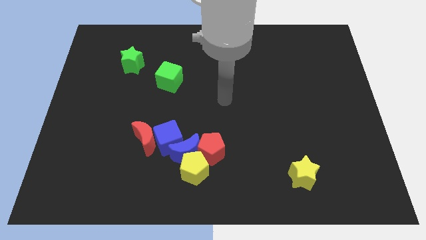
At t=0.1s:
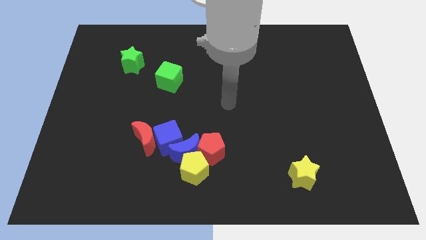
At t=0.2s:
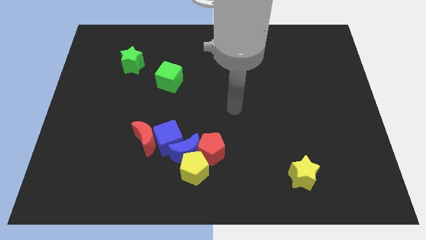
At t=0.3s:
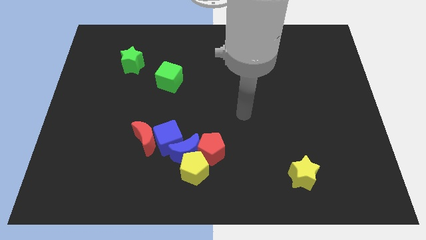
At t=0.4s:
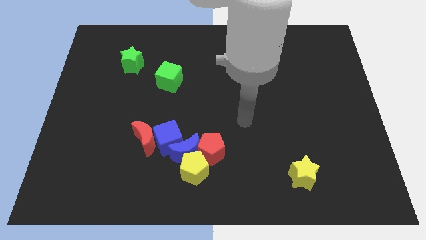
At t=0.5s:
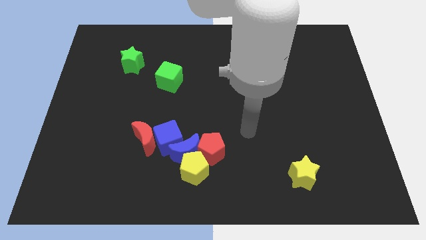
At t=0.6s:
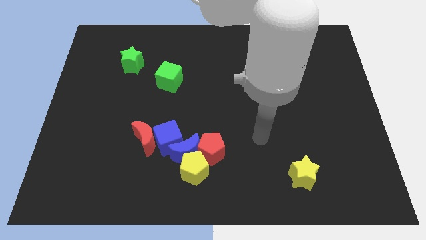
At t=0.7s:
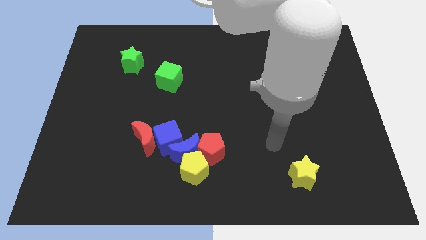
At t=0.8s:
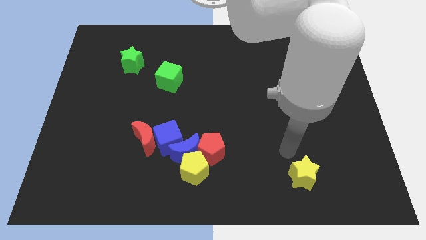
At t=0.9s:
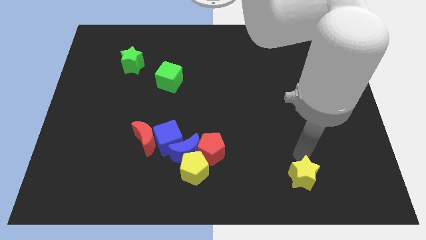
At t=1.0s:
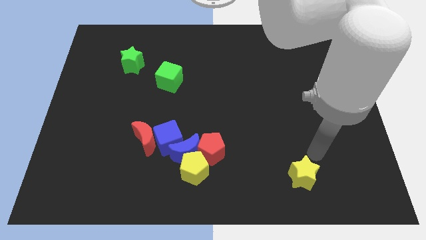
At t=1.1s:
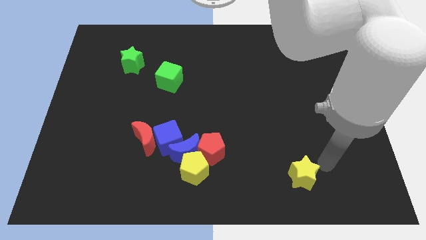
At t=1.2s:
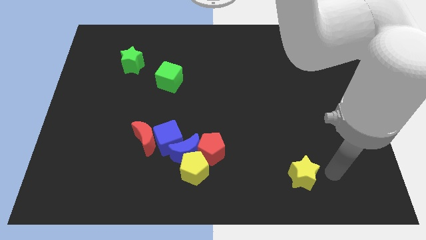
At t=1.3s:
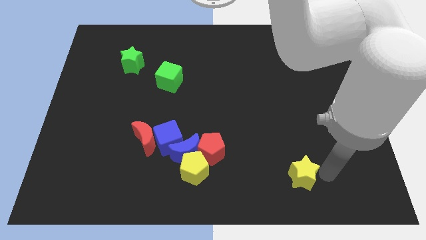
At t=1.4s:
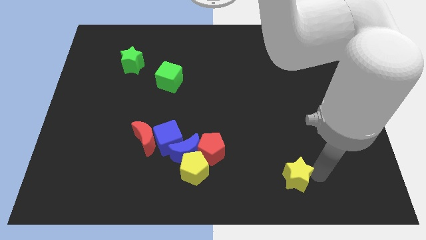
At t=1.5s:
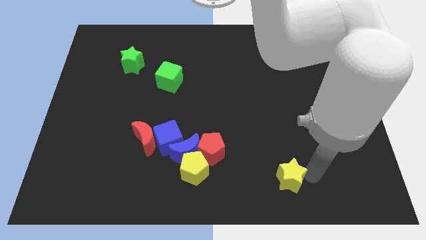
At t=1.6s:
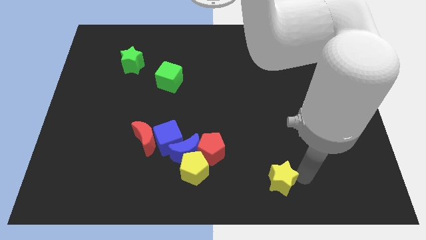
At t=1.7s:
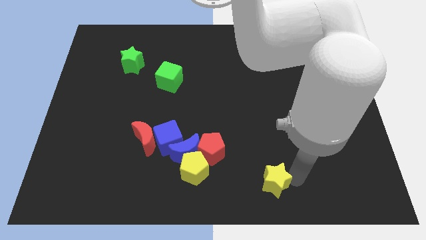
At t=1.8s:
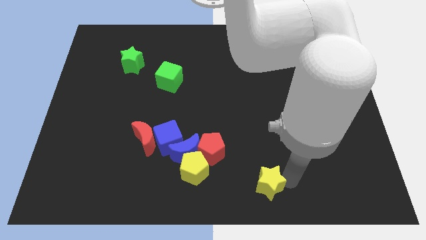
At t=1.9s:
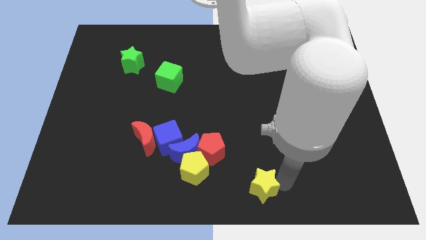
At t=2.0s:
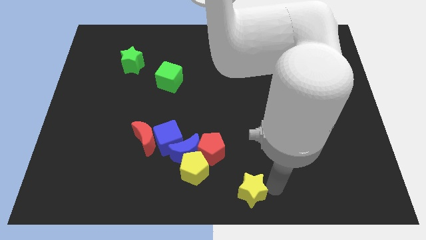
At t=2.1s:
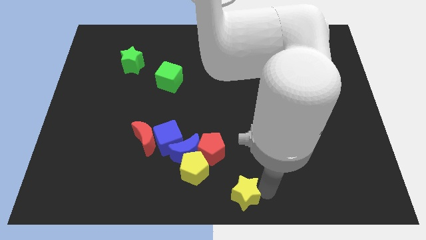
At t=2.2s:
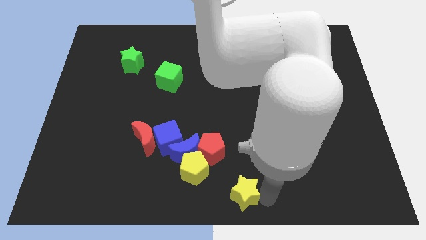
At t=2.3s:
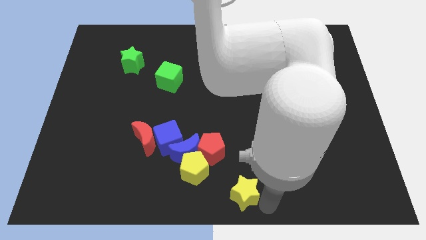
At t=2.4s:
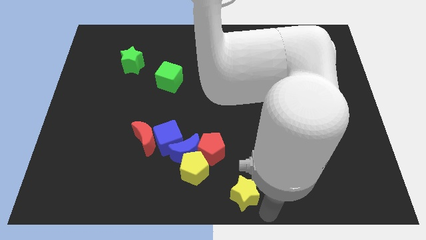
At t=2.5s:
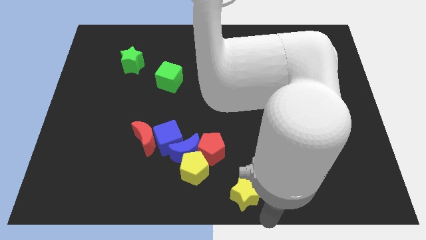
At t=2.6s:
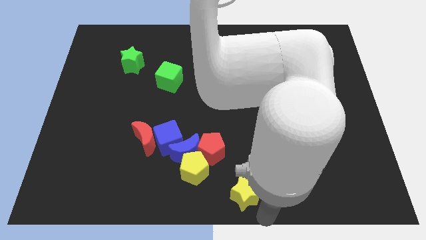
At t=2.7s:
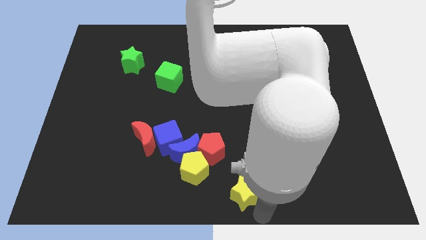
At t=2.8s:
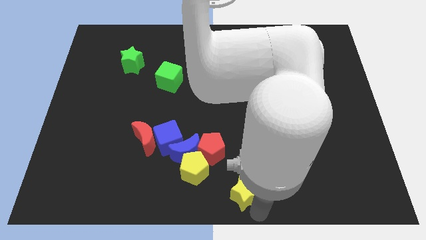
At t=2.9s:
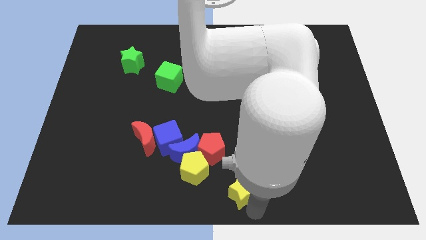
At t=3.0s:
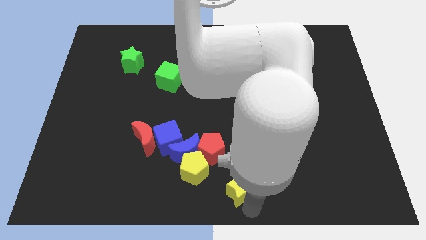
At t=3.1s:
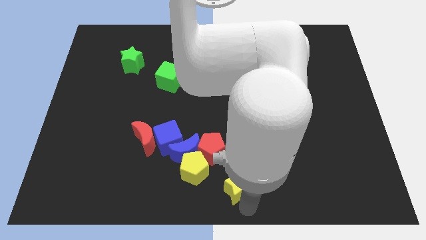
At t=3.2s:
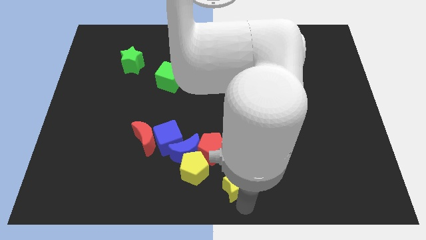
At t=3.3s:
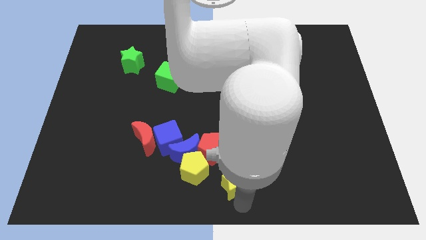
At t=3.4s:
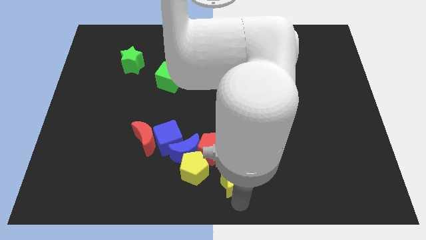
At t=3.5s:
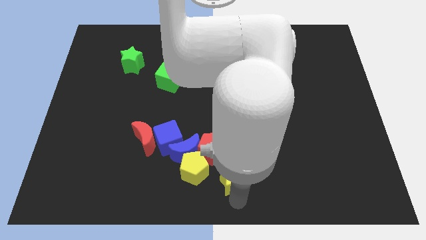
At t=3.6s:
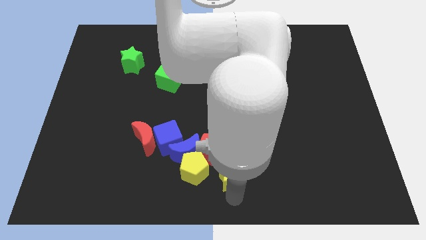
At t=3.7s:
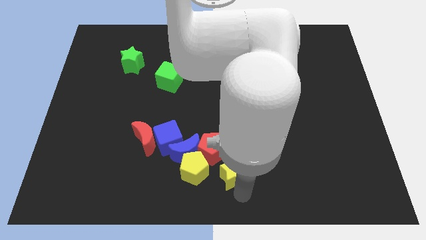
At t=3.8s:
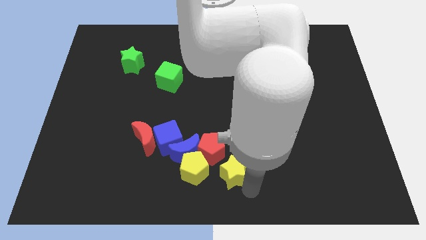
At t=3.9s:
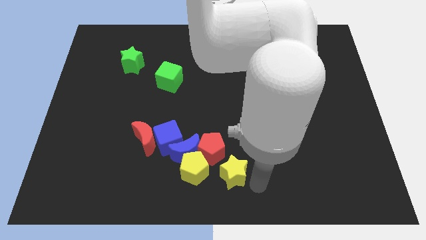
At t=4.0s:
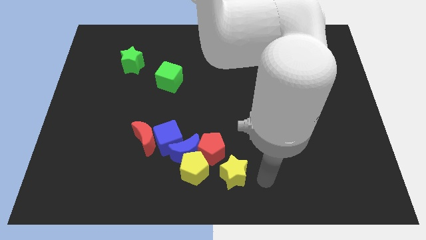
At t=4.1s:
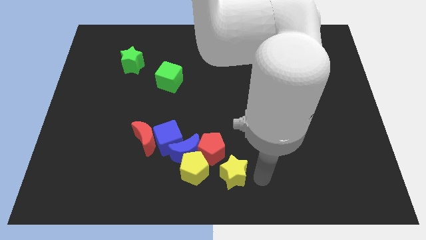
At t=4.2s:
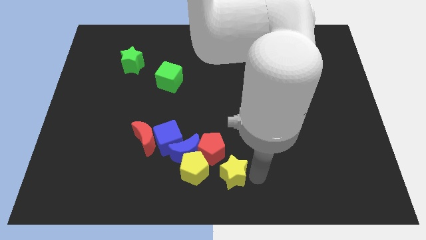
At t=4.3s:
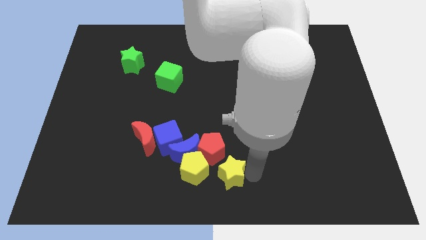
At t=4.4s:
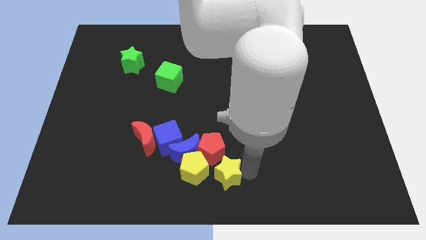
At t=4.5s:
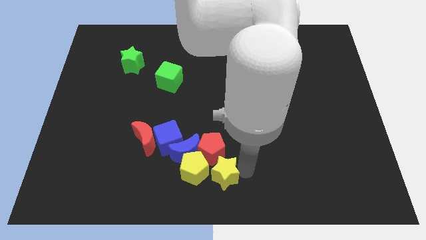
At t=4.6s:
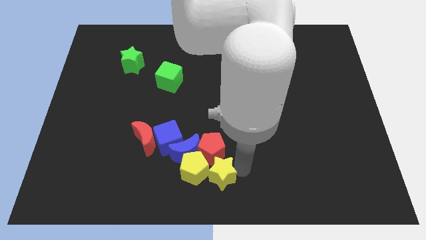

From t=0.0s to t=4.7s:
slide the yellow star close to the yellow pentagon

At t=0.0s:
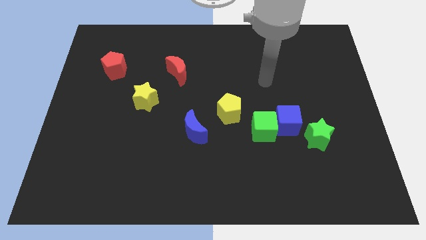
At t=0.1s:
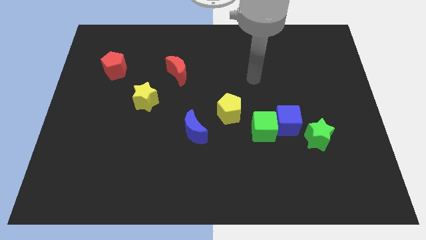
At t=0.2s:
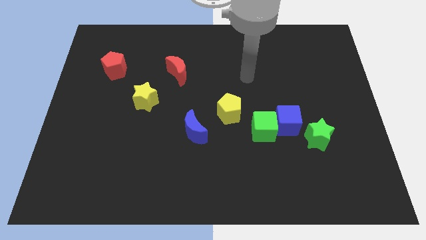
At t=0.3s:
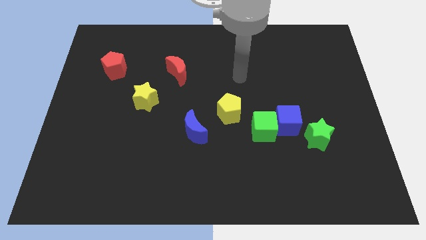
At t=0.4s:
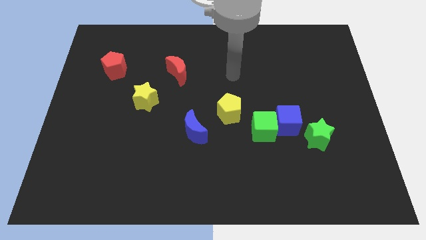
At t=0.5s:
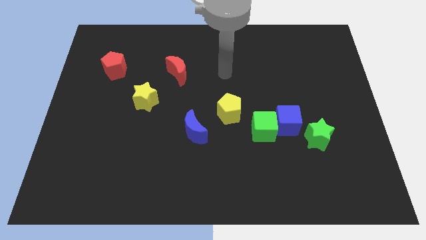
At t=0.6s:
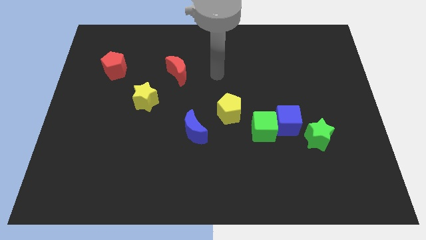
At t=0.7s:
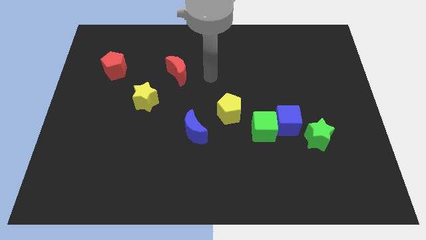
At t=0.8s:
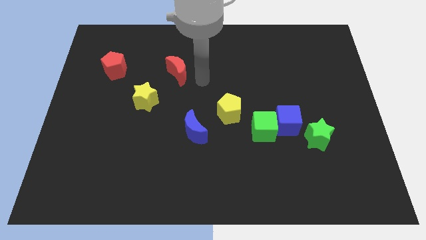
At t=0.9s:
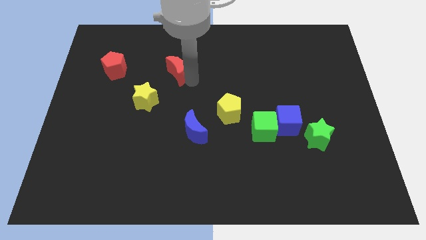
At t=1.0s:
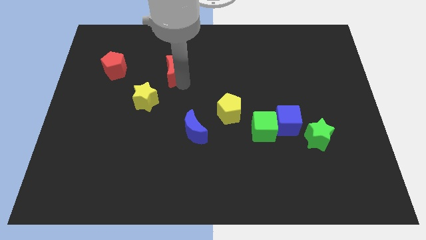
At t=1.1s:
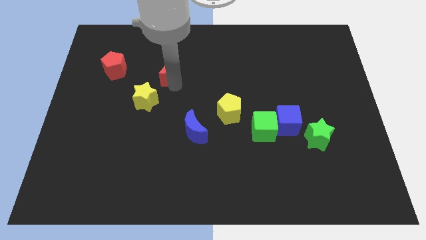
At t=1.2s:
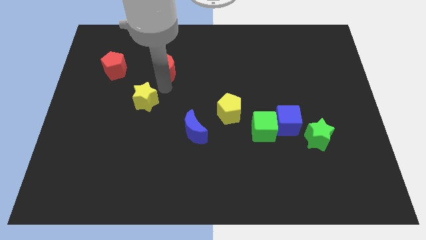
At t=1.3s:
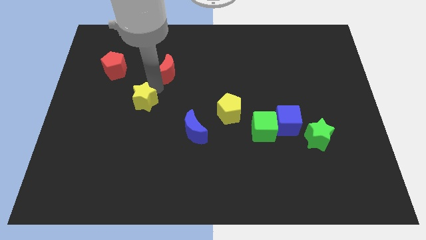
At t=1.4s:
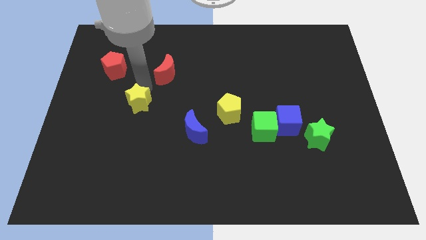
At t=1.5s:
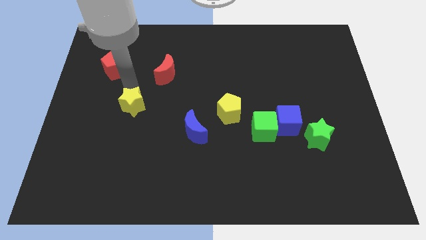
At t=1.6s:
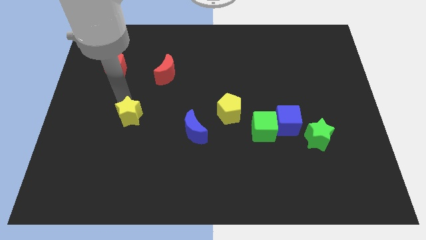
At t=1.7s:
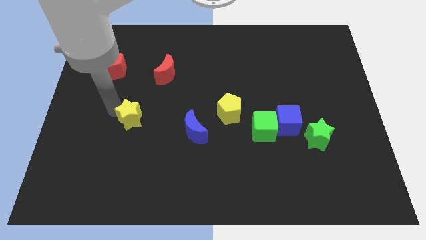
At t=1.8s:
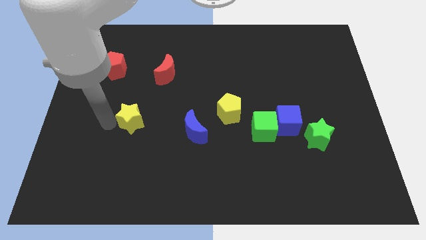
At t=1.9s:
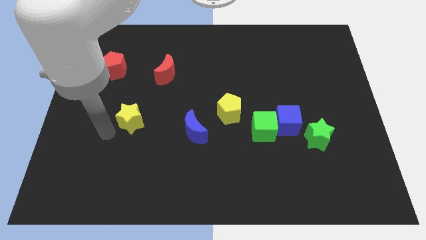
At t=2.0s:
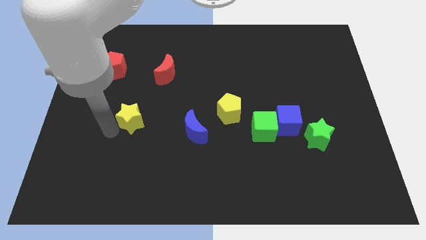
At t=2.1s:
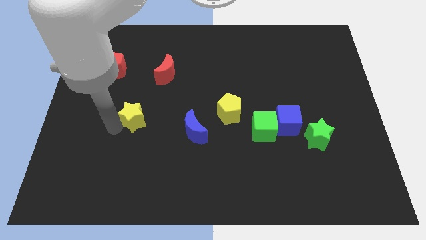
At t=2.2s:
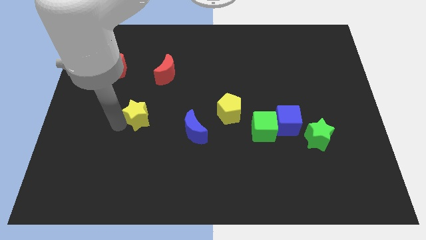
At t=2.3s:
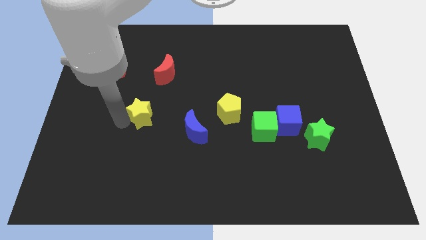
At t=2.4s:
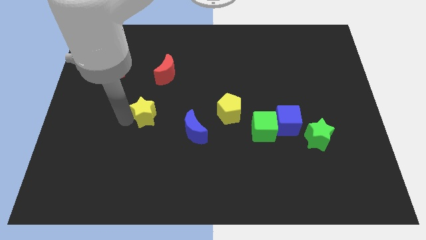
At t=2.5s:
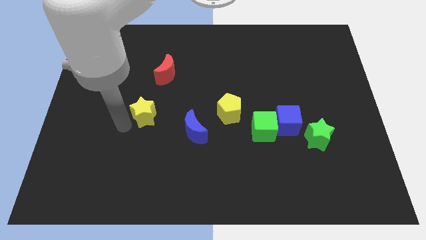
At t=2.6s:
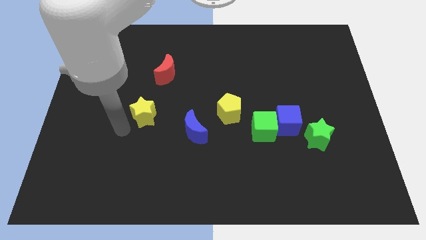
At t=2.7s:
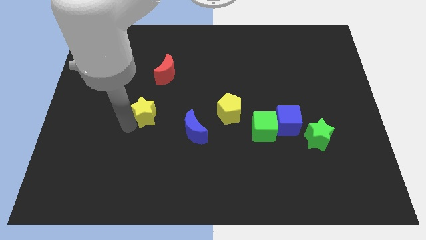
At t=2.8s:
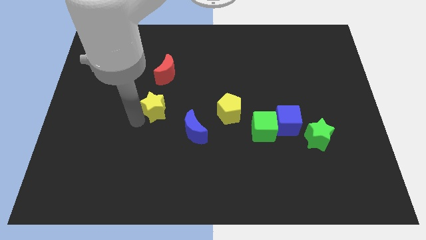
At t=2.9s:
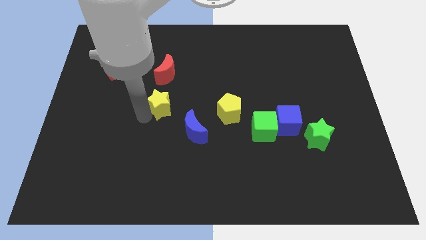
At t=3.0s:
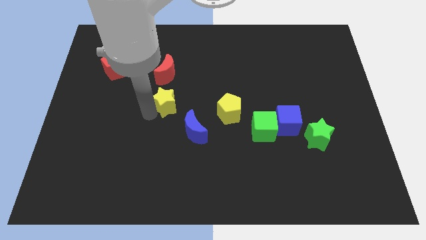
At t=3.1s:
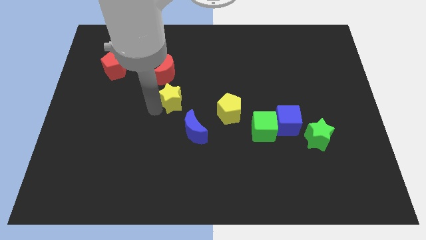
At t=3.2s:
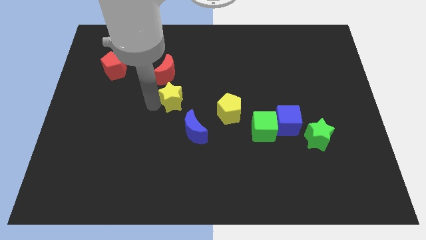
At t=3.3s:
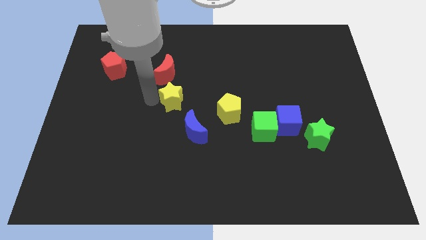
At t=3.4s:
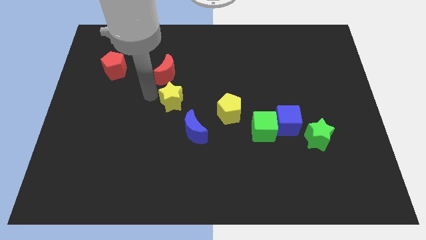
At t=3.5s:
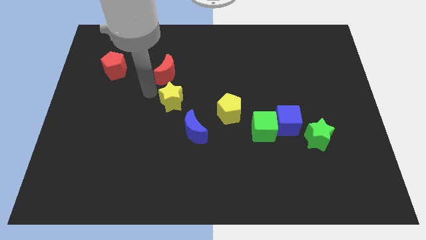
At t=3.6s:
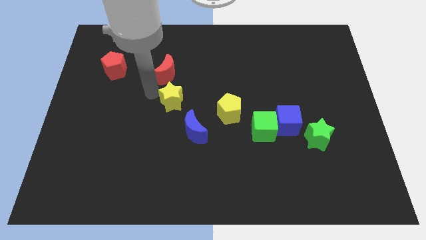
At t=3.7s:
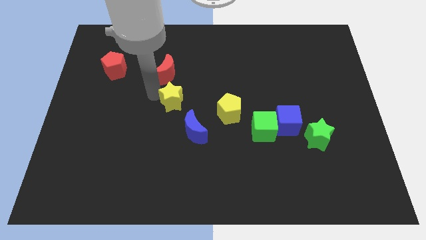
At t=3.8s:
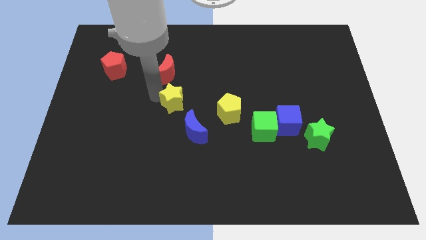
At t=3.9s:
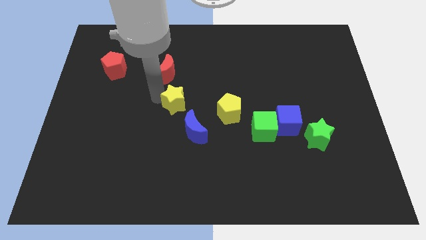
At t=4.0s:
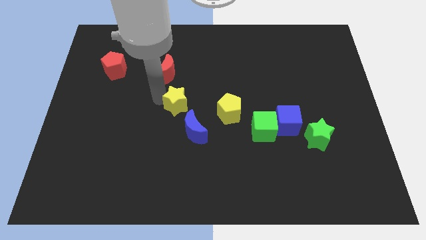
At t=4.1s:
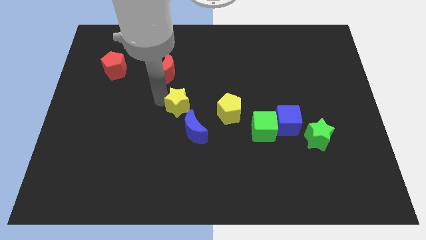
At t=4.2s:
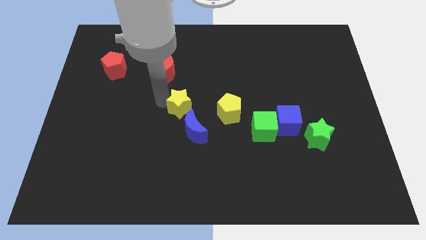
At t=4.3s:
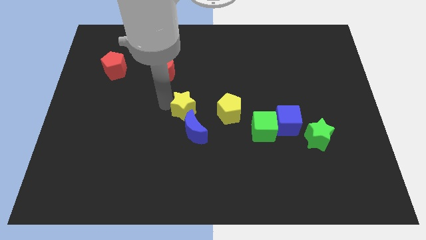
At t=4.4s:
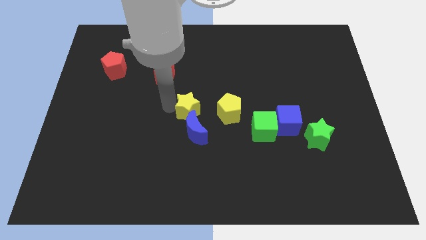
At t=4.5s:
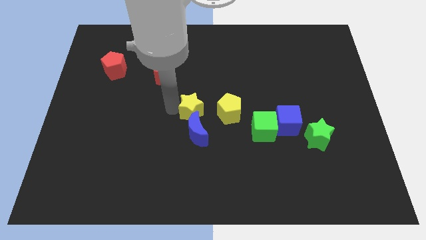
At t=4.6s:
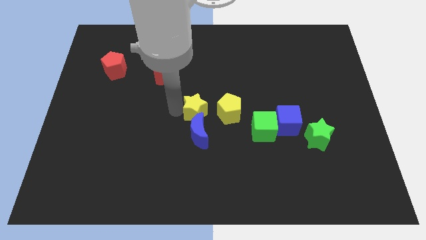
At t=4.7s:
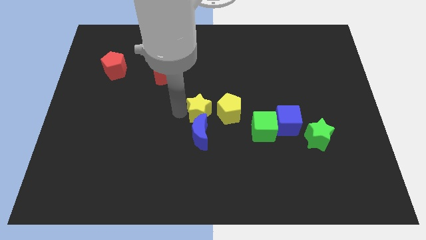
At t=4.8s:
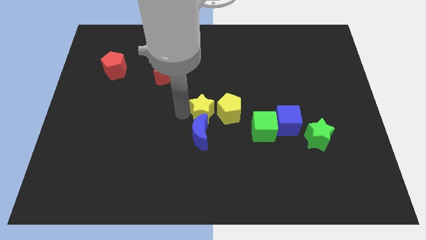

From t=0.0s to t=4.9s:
slide the yellow star towards the yellow pentagon
